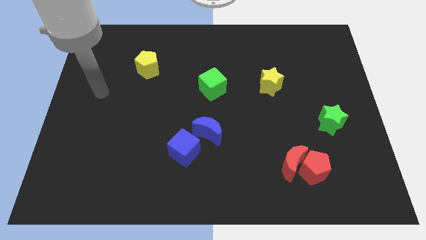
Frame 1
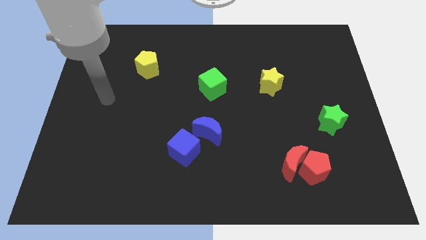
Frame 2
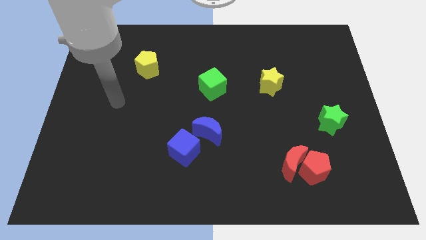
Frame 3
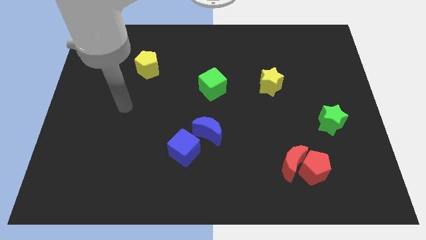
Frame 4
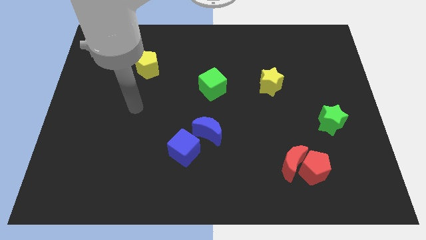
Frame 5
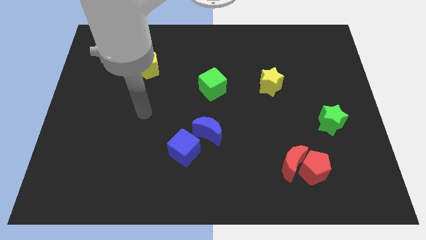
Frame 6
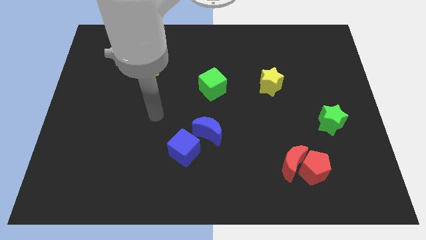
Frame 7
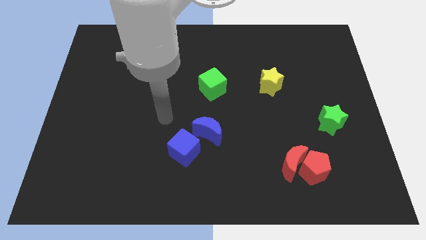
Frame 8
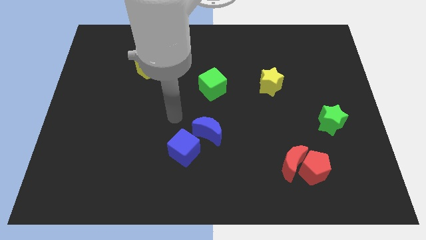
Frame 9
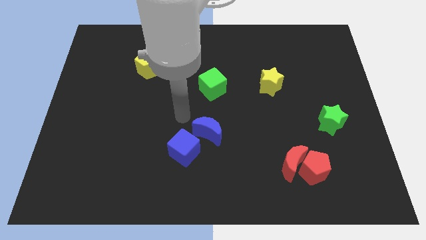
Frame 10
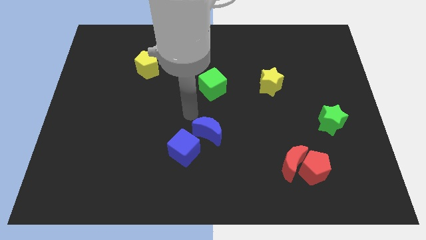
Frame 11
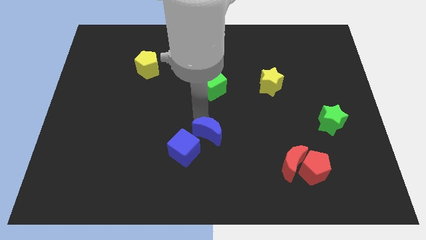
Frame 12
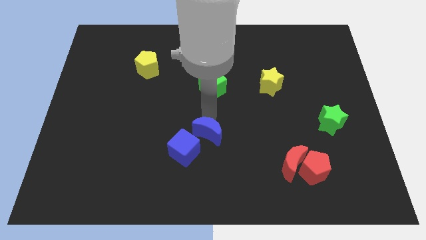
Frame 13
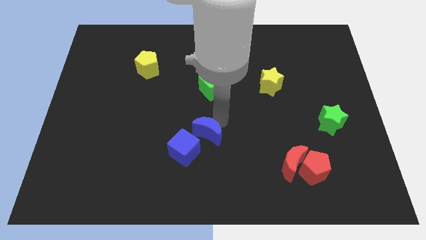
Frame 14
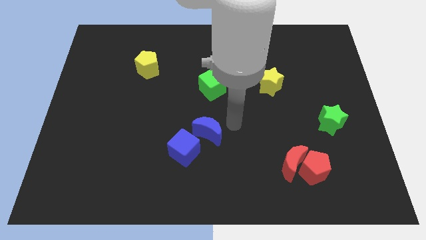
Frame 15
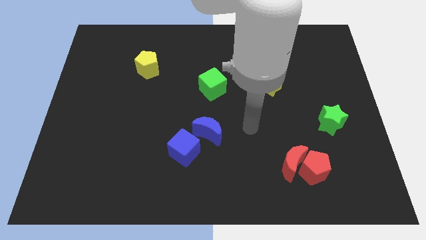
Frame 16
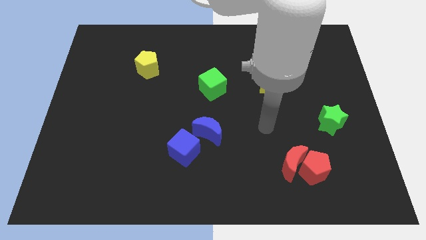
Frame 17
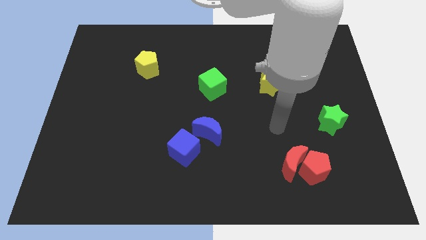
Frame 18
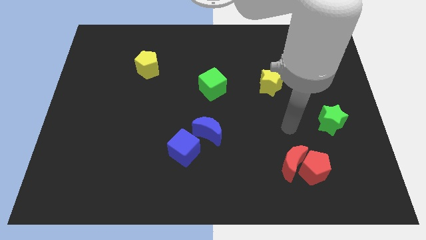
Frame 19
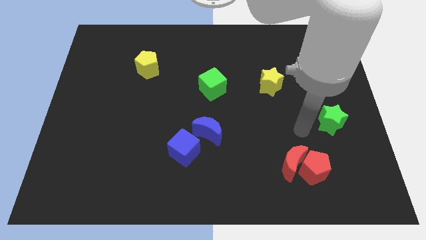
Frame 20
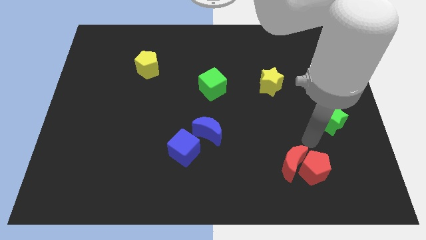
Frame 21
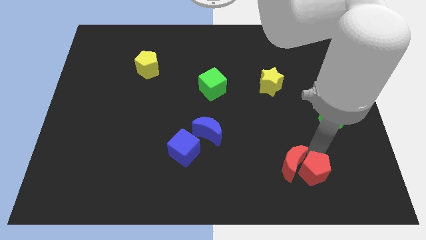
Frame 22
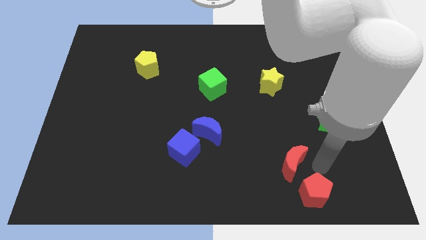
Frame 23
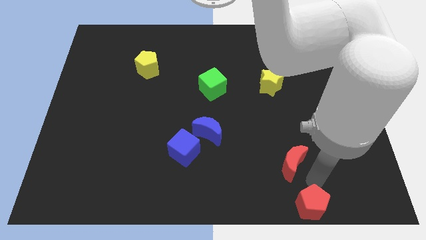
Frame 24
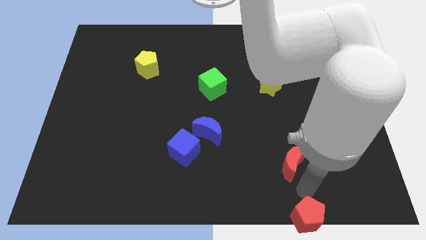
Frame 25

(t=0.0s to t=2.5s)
move the red moon away from the red pentagon

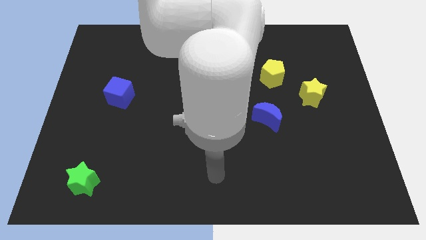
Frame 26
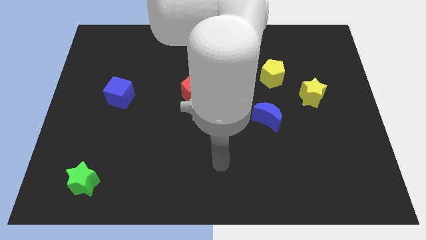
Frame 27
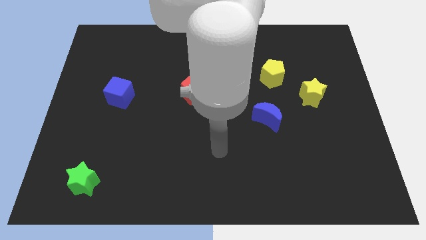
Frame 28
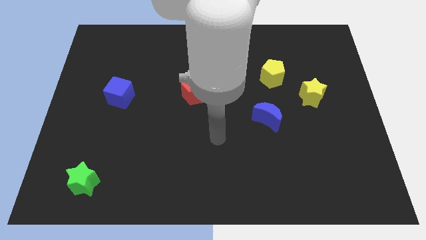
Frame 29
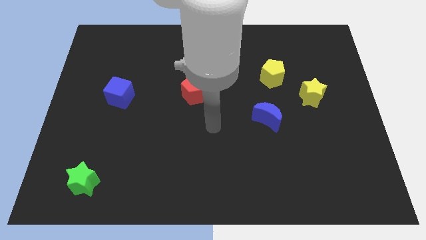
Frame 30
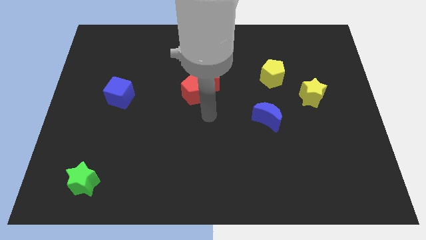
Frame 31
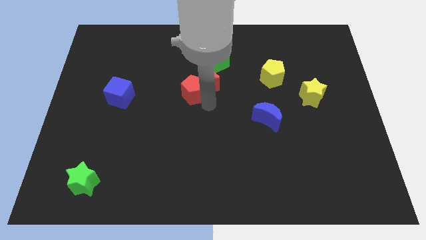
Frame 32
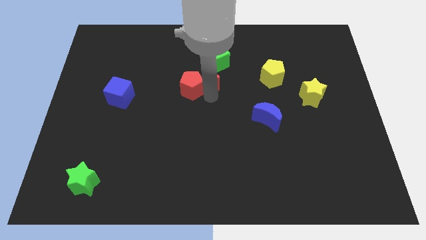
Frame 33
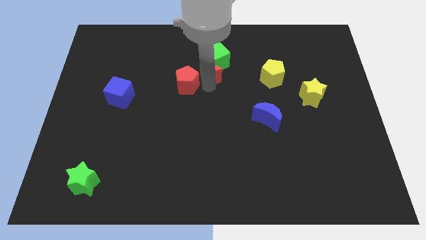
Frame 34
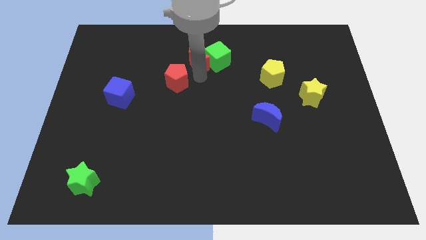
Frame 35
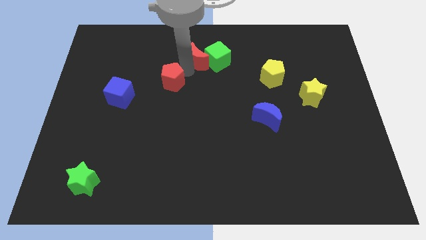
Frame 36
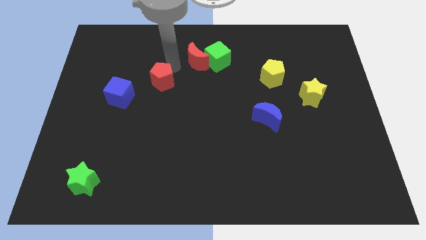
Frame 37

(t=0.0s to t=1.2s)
pull the red pentagon apart from the red moon

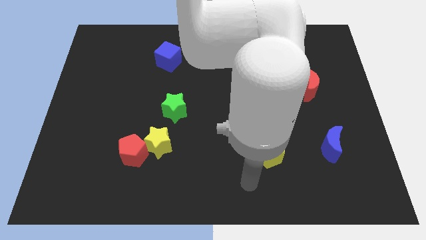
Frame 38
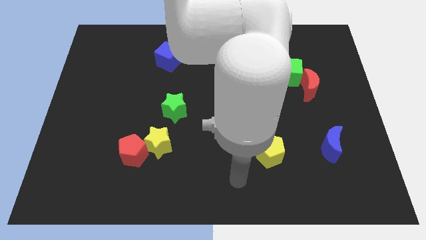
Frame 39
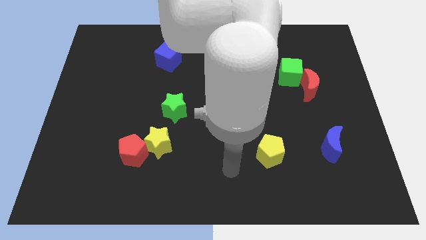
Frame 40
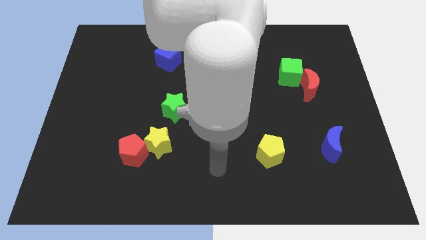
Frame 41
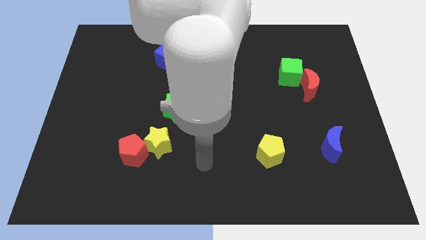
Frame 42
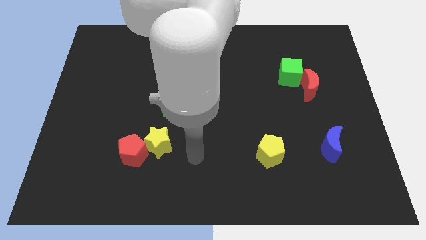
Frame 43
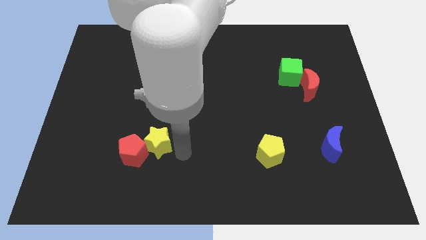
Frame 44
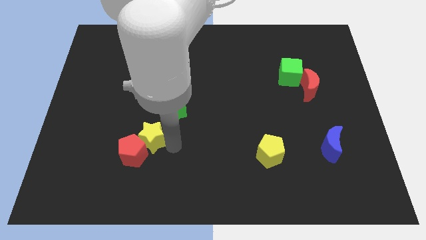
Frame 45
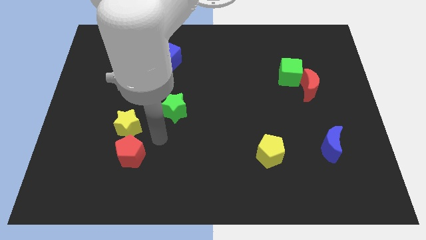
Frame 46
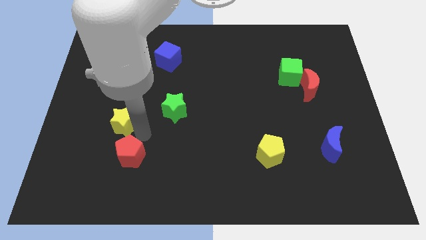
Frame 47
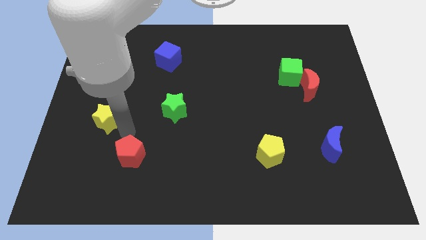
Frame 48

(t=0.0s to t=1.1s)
pull the red pentagon apart from the yellow star

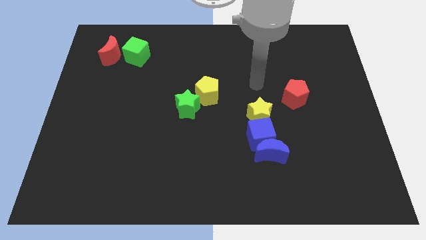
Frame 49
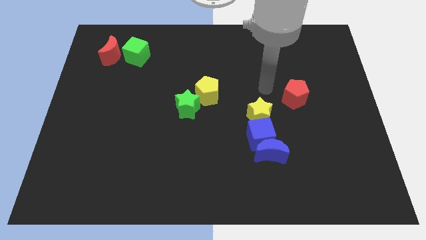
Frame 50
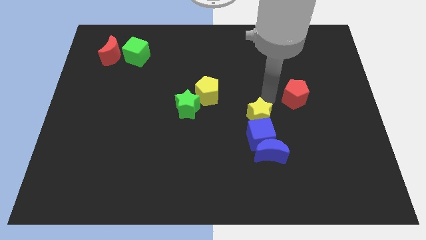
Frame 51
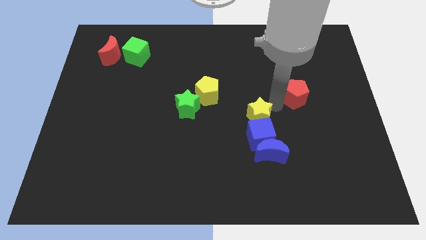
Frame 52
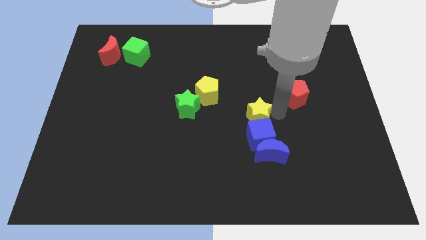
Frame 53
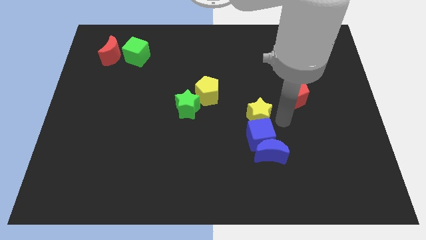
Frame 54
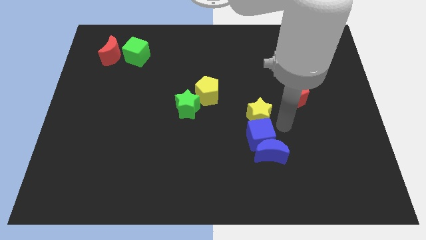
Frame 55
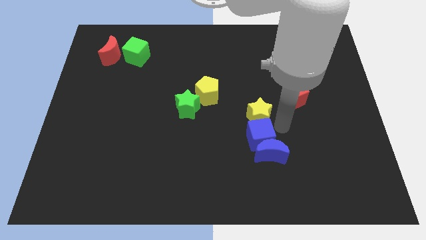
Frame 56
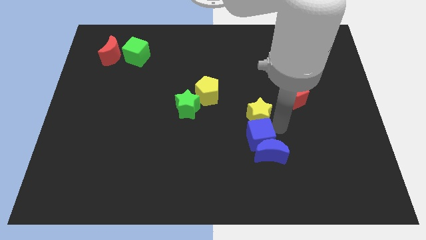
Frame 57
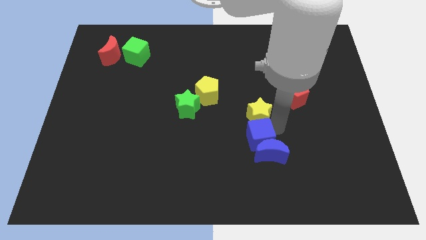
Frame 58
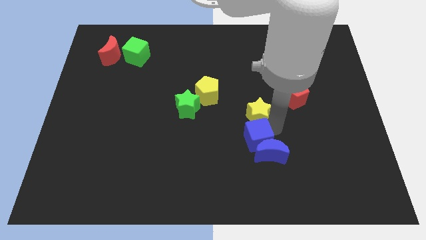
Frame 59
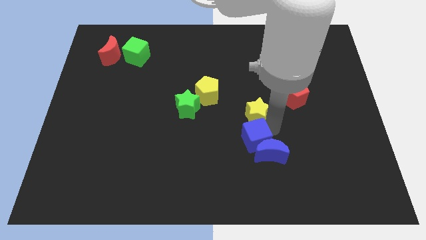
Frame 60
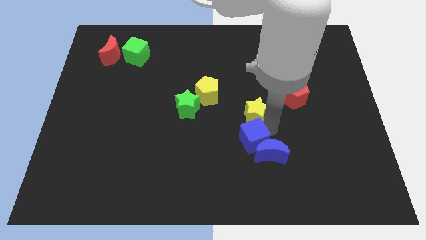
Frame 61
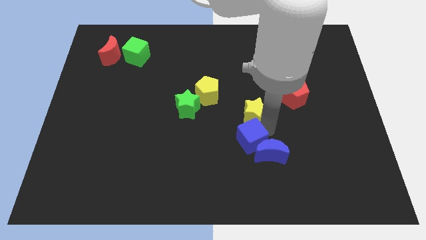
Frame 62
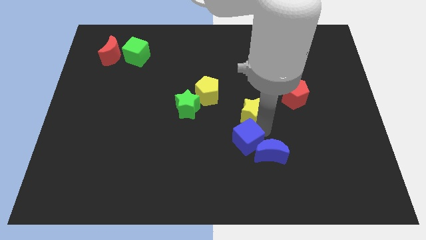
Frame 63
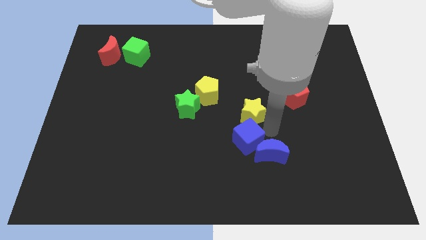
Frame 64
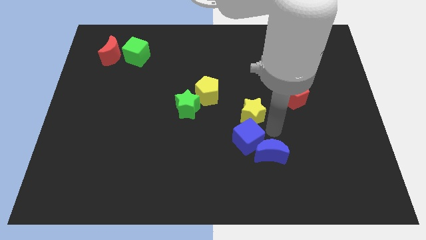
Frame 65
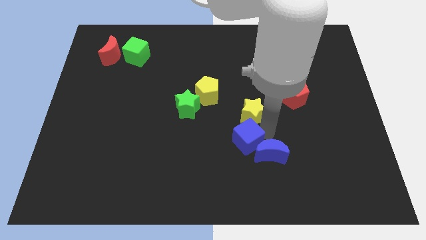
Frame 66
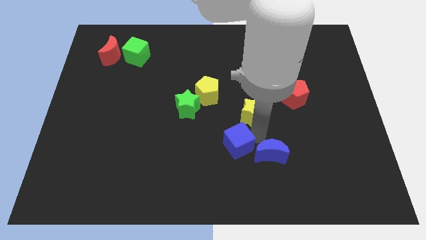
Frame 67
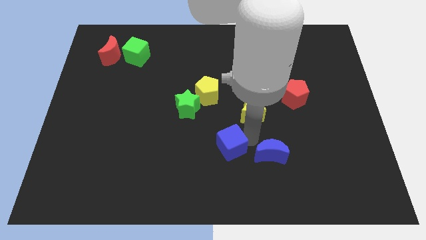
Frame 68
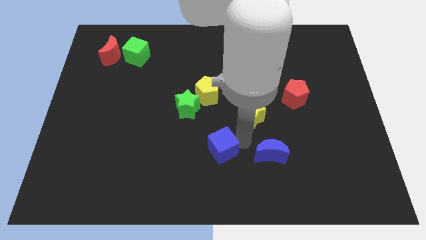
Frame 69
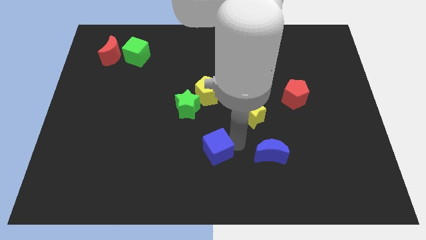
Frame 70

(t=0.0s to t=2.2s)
separate the blue cube from the blue moon and yellow star

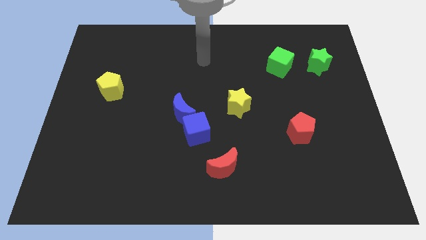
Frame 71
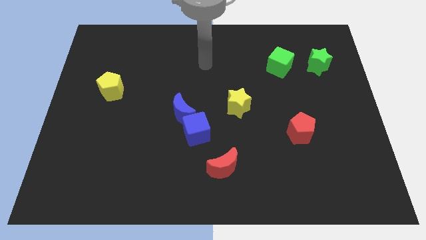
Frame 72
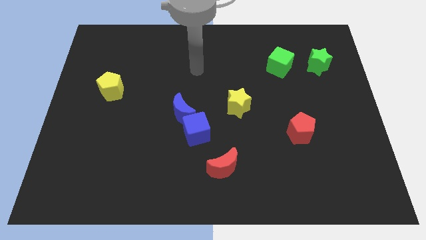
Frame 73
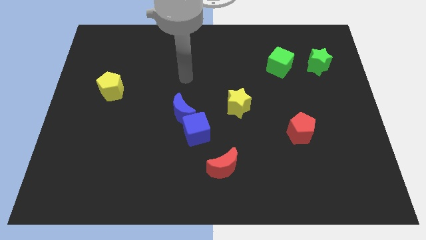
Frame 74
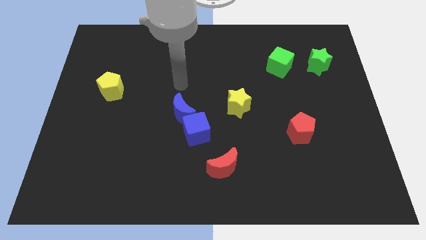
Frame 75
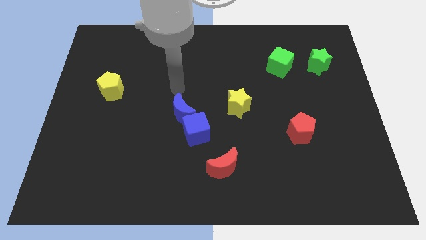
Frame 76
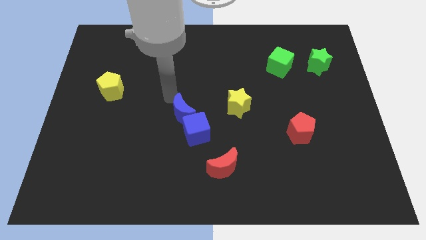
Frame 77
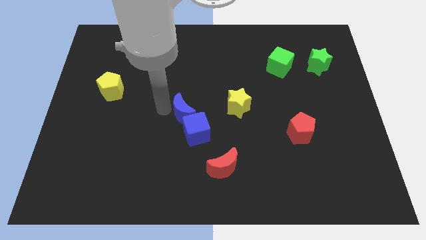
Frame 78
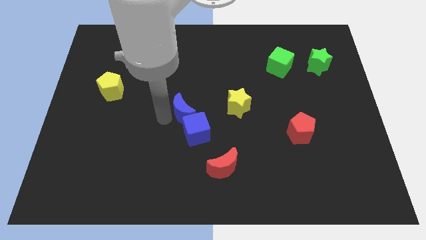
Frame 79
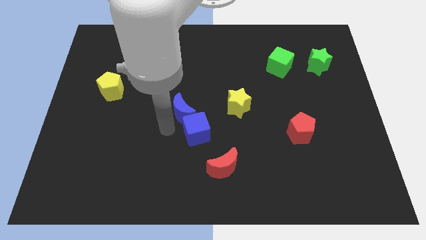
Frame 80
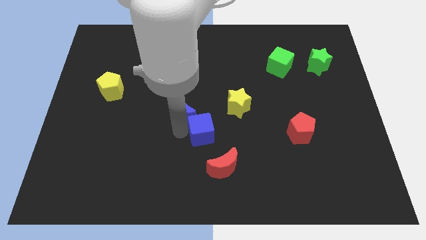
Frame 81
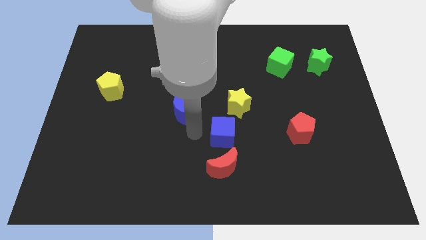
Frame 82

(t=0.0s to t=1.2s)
pull the blue moon apart from the blue cube

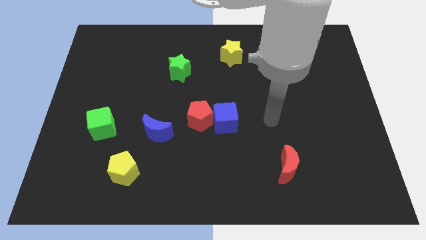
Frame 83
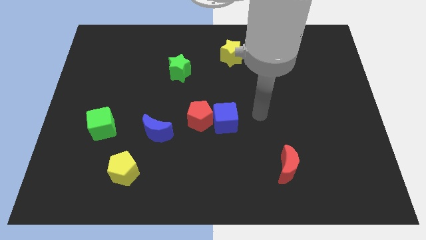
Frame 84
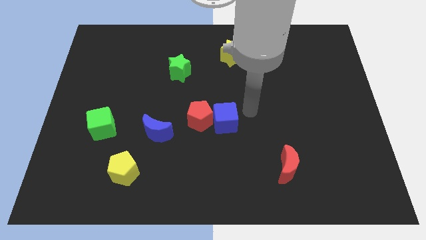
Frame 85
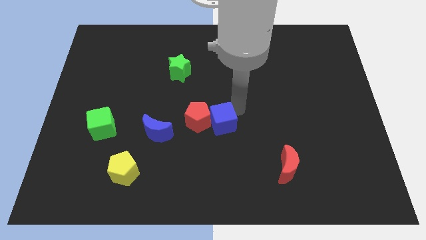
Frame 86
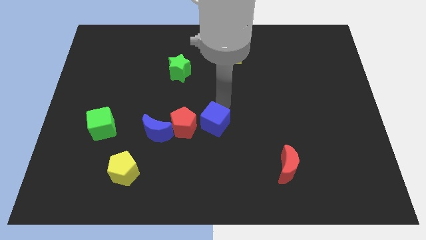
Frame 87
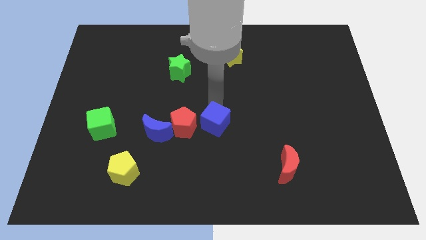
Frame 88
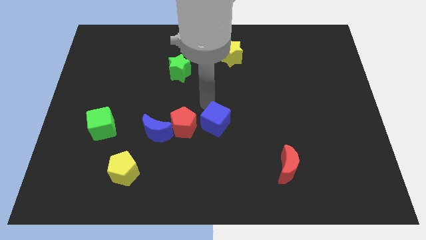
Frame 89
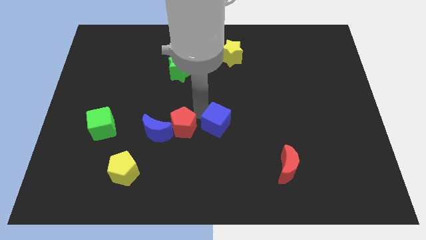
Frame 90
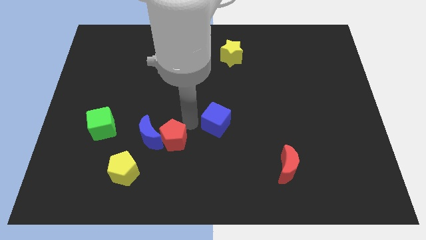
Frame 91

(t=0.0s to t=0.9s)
separate the blue cube from the red pentagon

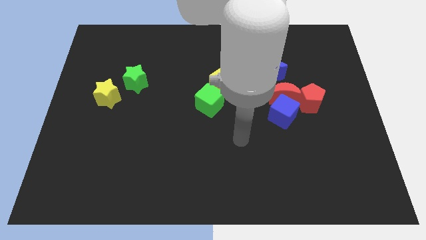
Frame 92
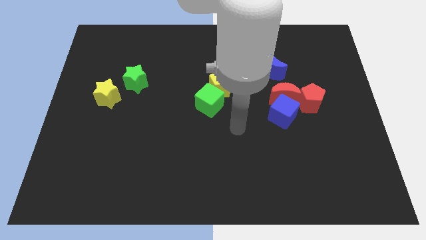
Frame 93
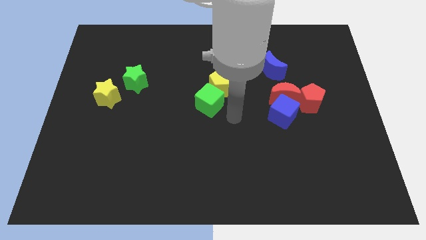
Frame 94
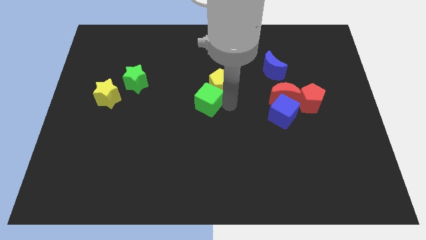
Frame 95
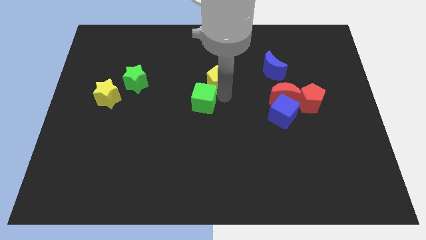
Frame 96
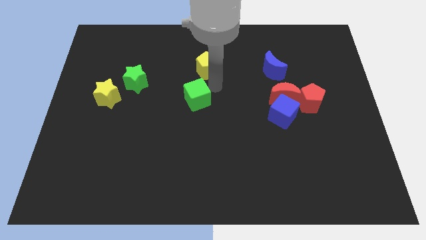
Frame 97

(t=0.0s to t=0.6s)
separate the green cube from the yellow pentagon
